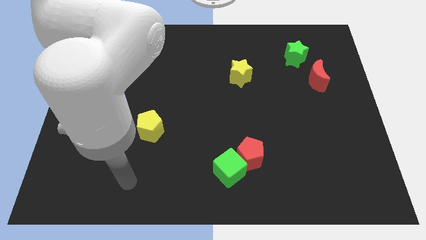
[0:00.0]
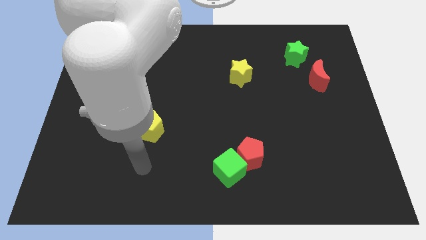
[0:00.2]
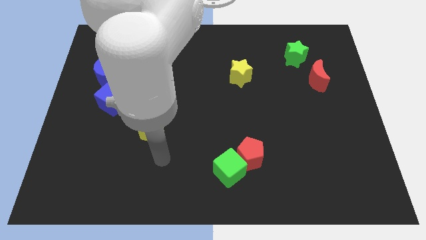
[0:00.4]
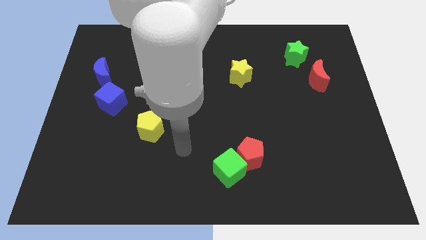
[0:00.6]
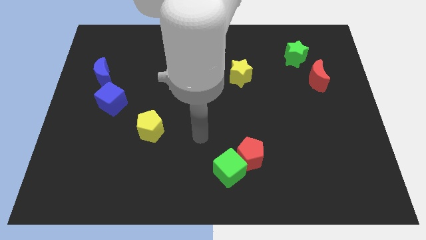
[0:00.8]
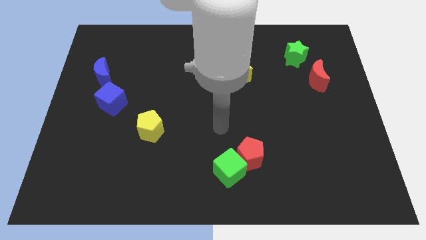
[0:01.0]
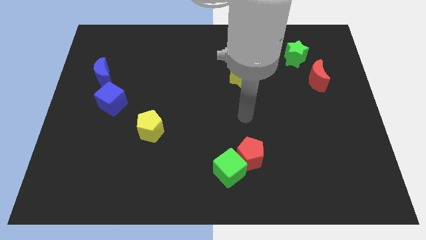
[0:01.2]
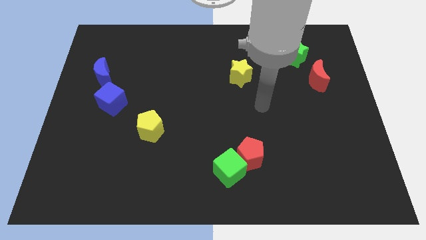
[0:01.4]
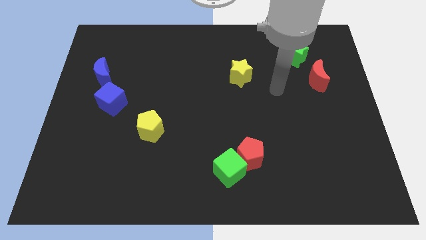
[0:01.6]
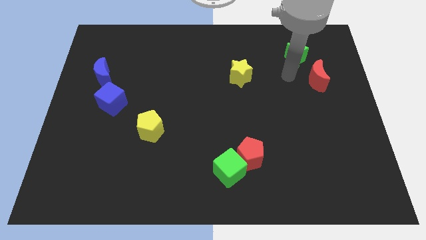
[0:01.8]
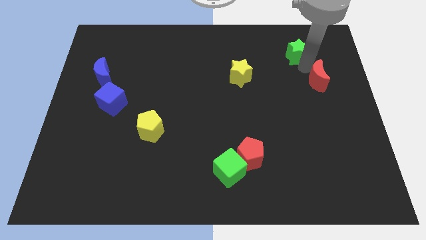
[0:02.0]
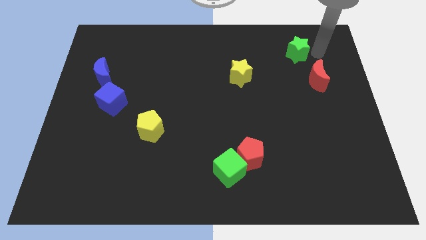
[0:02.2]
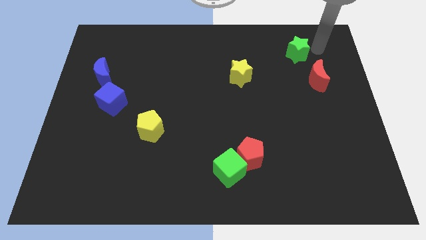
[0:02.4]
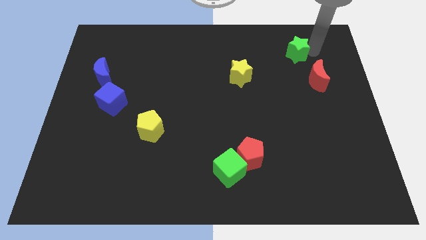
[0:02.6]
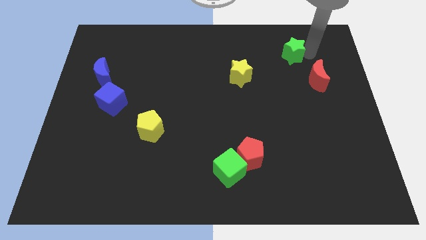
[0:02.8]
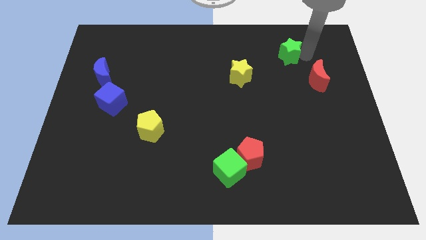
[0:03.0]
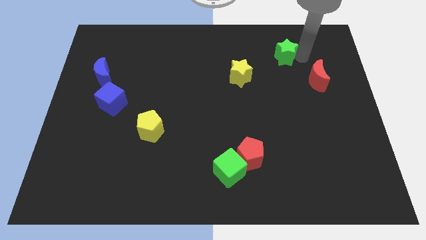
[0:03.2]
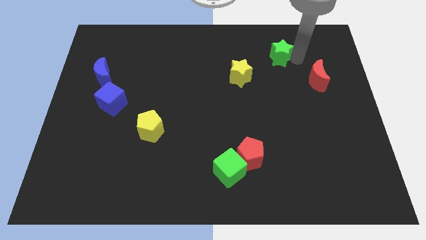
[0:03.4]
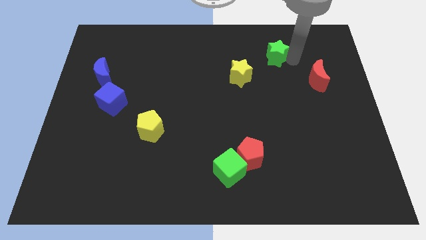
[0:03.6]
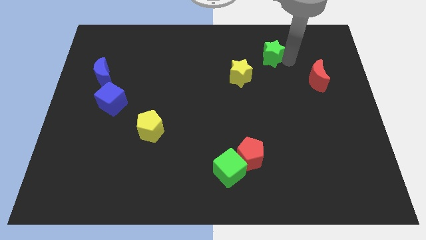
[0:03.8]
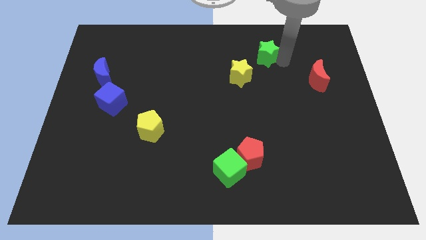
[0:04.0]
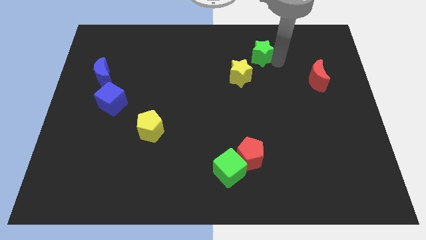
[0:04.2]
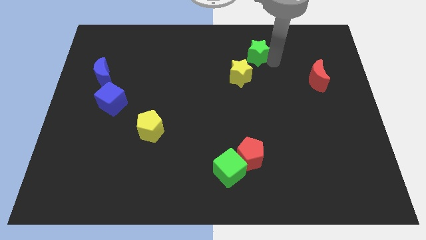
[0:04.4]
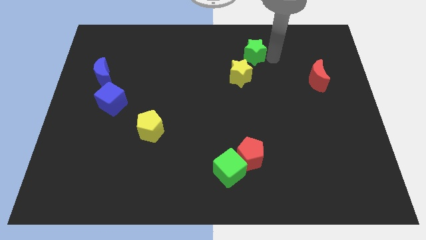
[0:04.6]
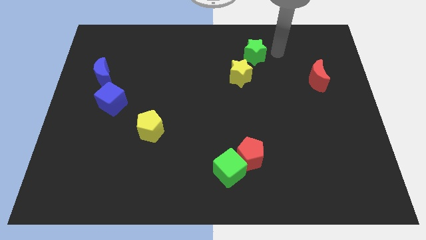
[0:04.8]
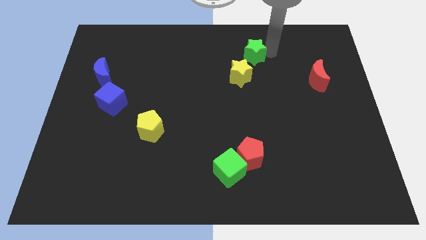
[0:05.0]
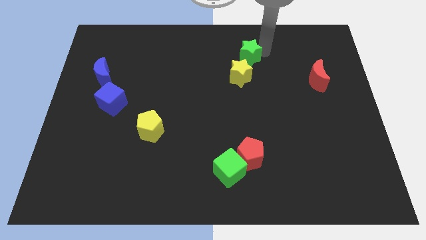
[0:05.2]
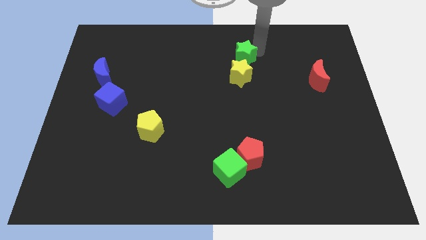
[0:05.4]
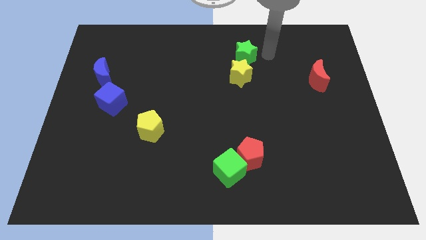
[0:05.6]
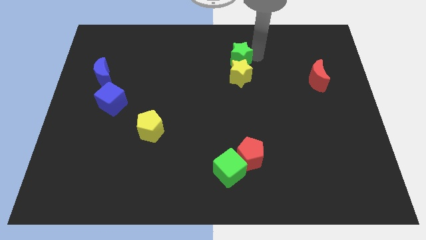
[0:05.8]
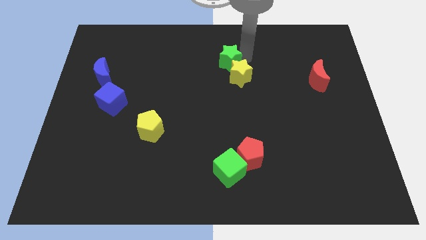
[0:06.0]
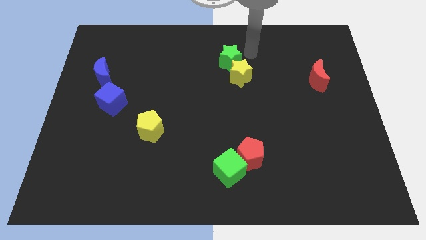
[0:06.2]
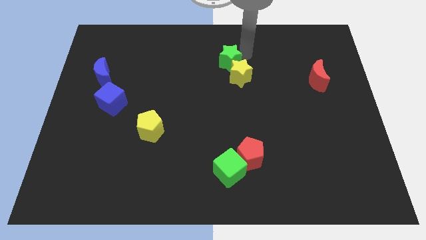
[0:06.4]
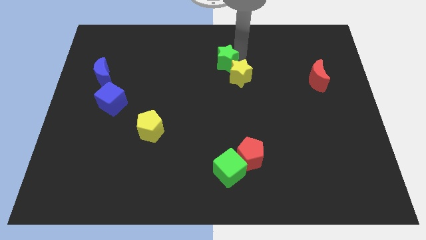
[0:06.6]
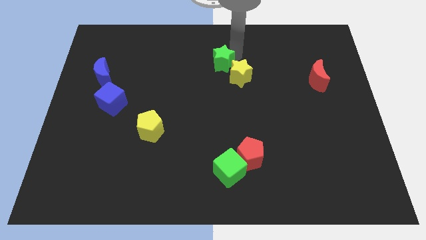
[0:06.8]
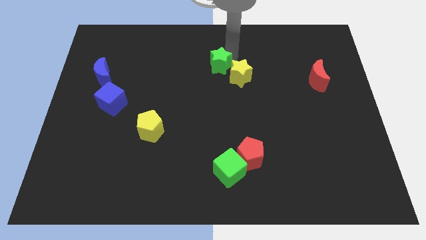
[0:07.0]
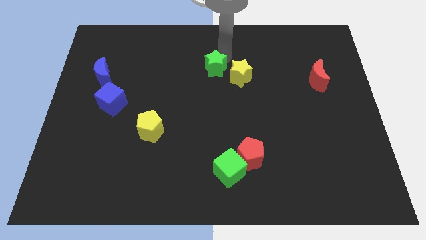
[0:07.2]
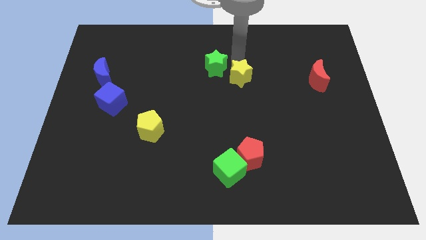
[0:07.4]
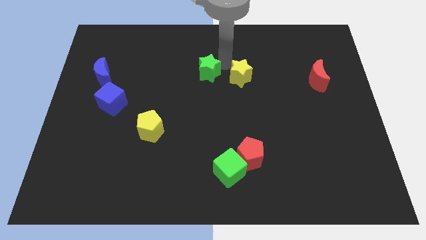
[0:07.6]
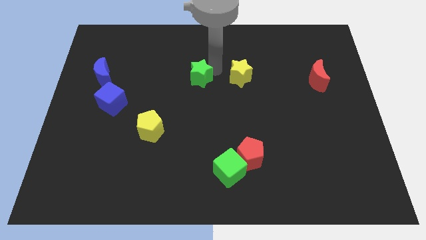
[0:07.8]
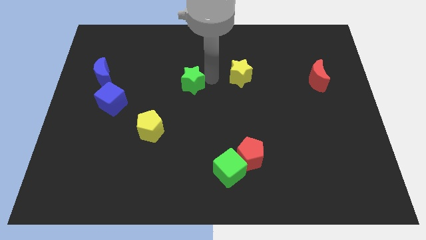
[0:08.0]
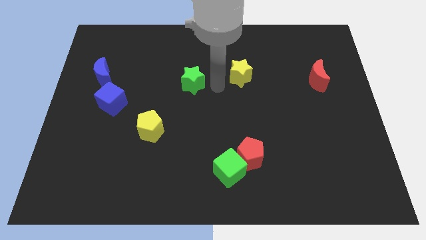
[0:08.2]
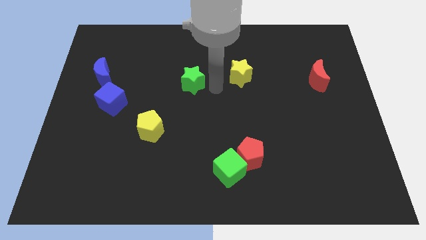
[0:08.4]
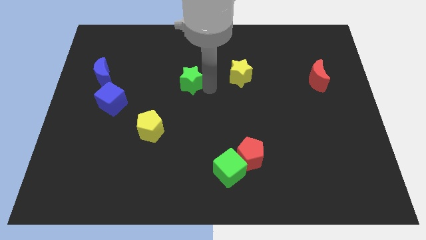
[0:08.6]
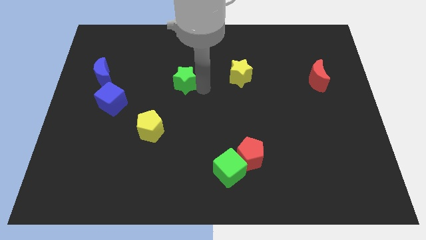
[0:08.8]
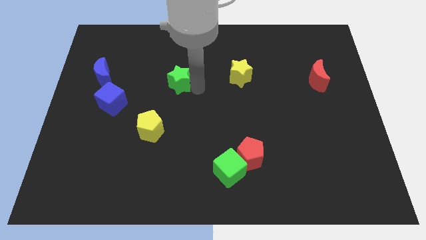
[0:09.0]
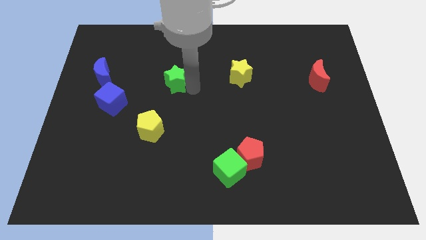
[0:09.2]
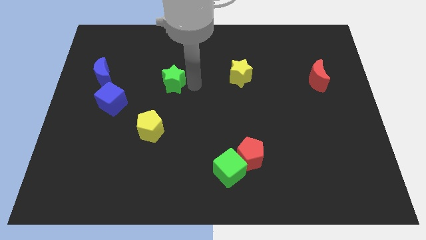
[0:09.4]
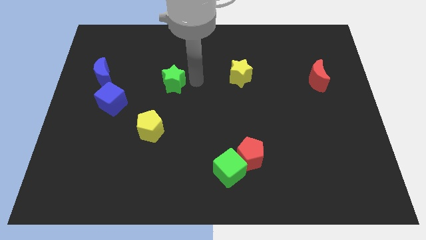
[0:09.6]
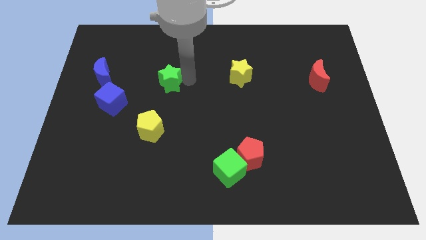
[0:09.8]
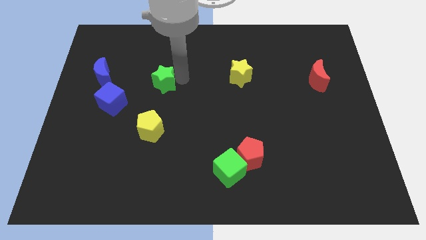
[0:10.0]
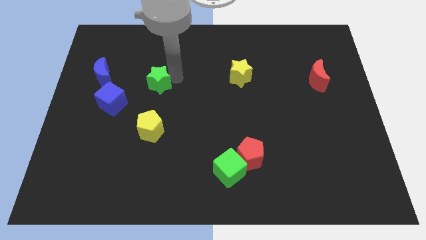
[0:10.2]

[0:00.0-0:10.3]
push the green star to the top right side of the blue cube

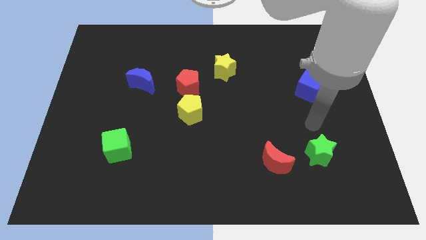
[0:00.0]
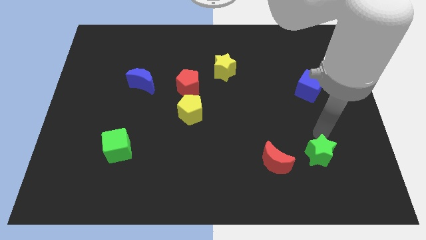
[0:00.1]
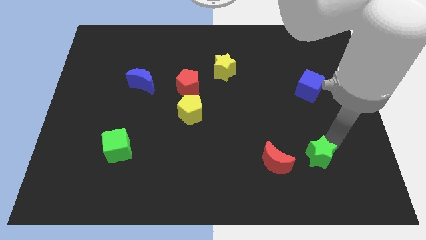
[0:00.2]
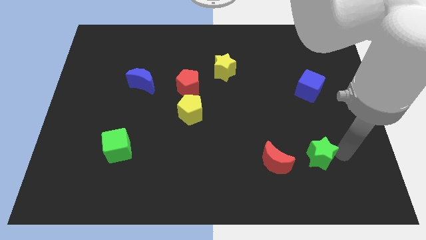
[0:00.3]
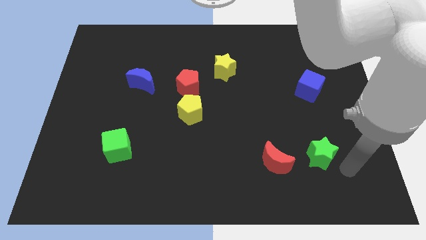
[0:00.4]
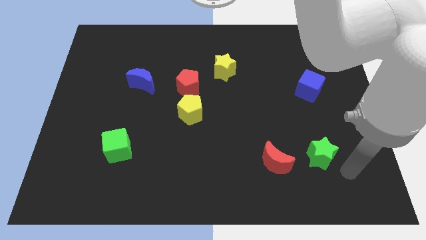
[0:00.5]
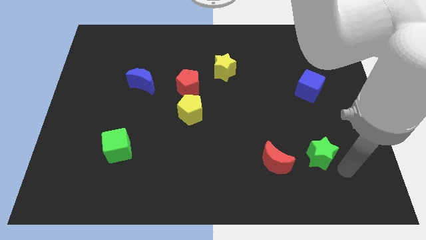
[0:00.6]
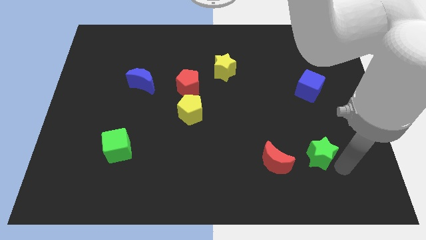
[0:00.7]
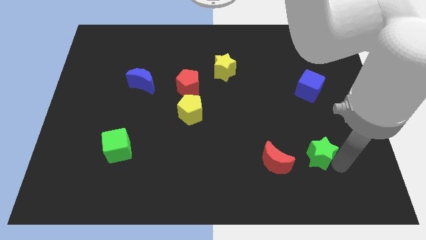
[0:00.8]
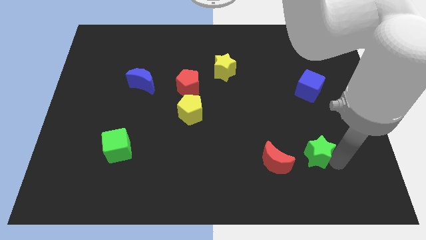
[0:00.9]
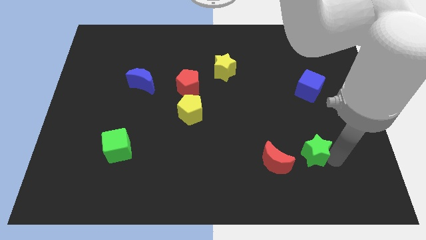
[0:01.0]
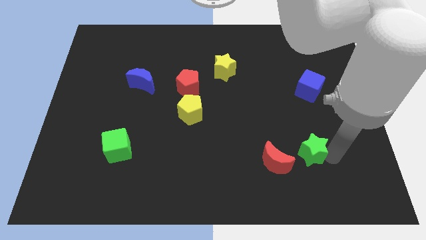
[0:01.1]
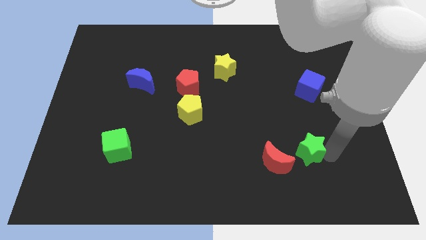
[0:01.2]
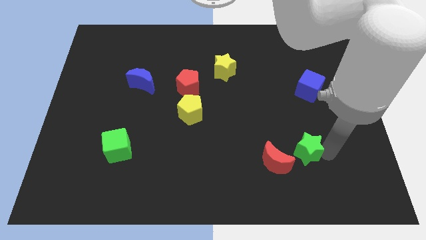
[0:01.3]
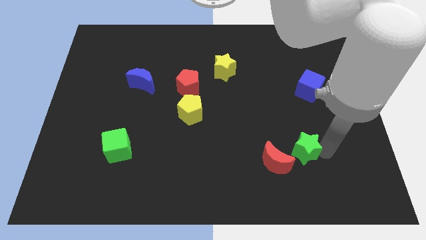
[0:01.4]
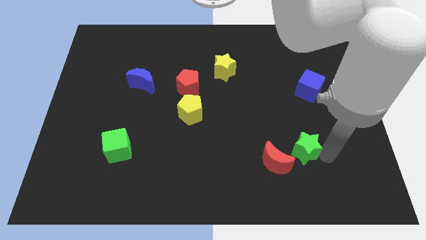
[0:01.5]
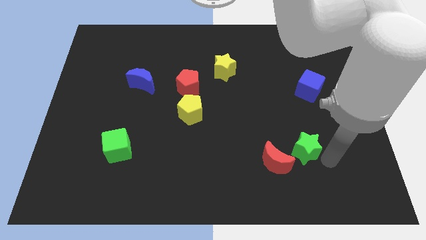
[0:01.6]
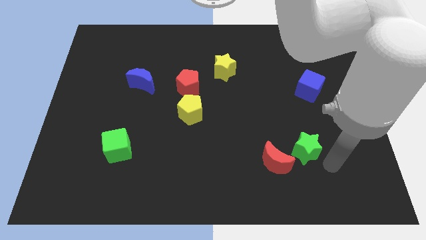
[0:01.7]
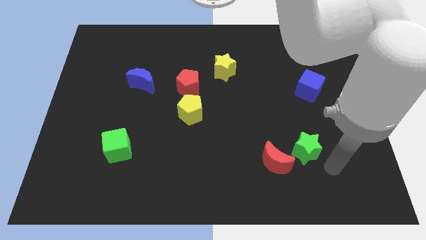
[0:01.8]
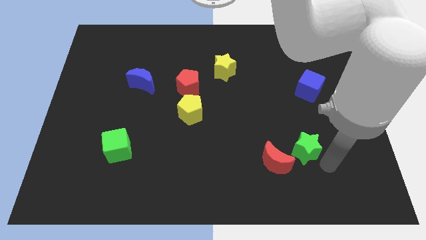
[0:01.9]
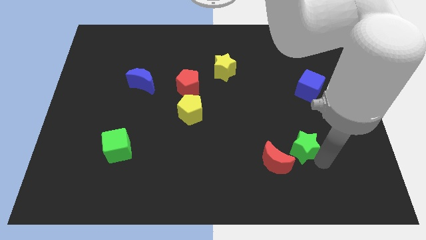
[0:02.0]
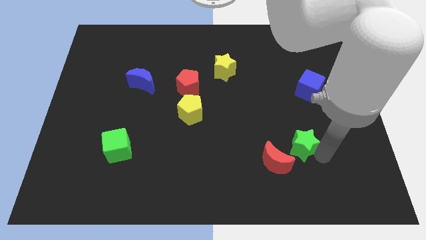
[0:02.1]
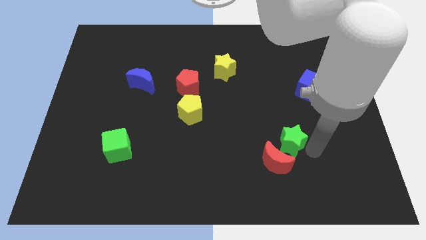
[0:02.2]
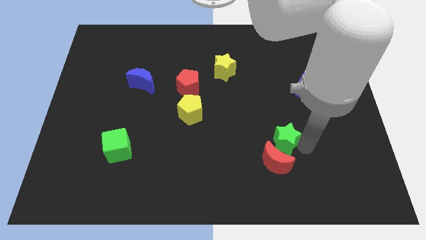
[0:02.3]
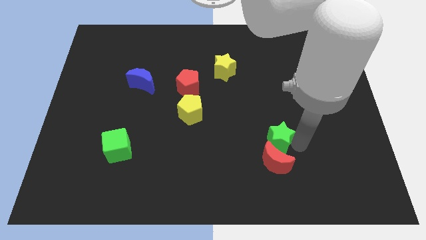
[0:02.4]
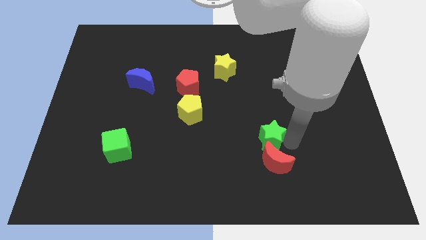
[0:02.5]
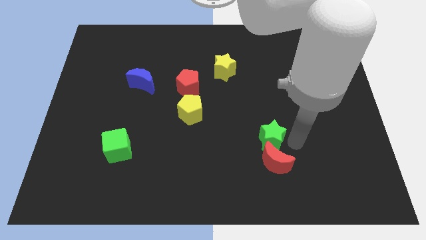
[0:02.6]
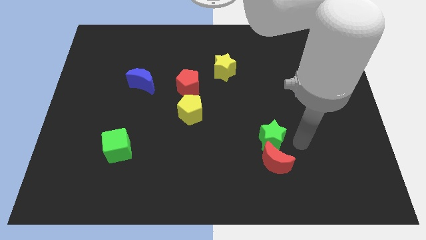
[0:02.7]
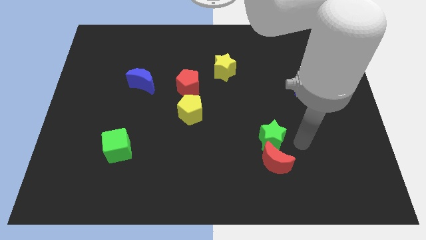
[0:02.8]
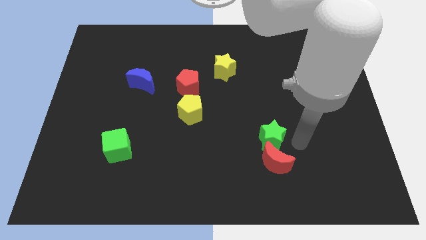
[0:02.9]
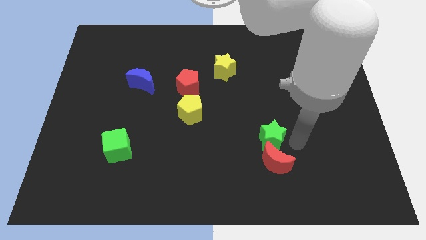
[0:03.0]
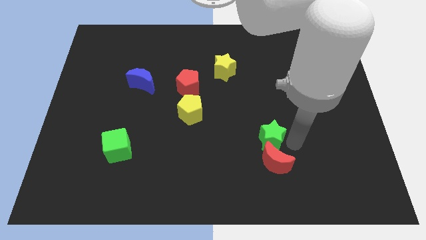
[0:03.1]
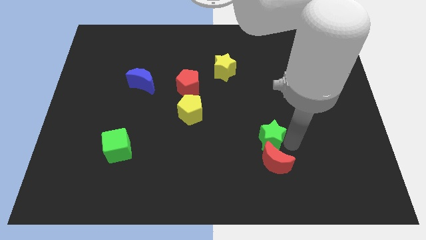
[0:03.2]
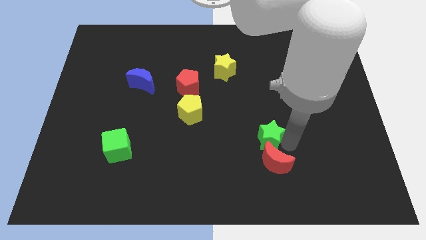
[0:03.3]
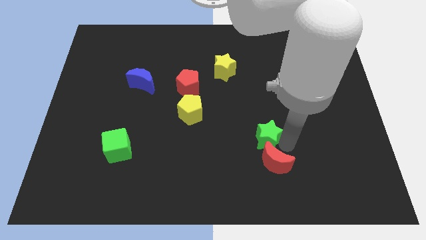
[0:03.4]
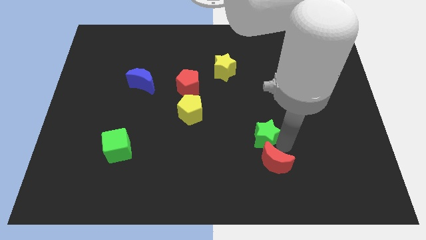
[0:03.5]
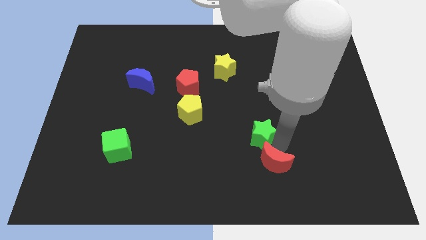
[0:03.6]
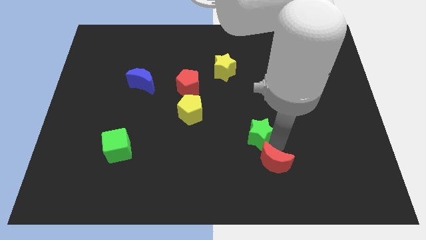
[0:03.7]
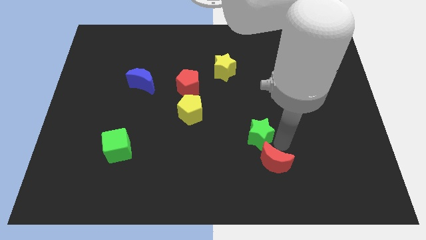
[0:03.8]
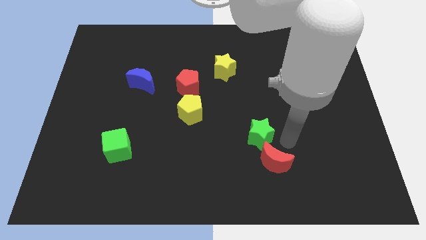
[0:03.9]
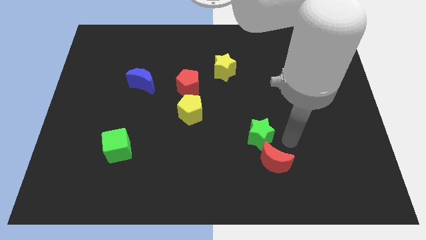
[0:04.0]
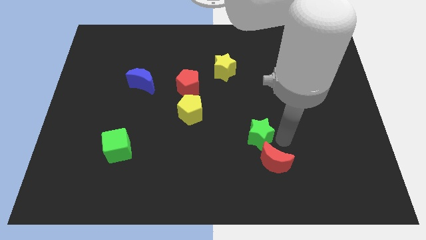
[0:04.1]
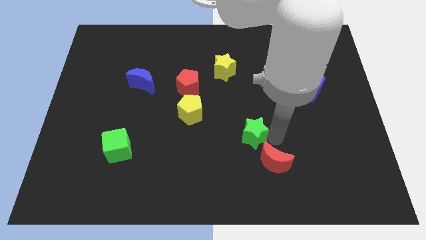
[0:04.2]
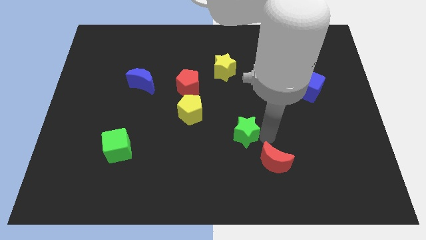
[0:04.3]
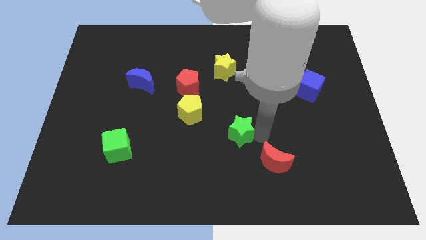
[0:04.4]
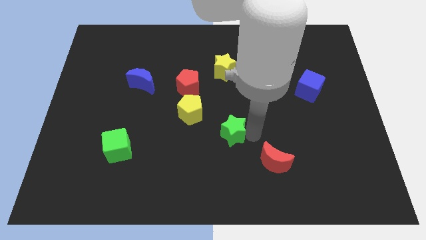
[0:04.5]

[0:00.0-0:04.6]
push the green star to the bottom right side of the yellow pentagon
